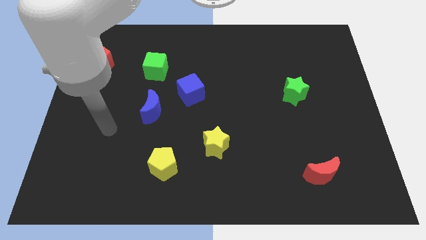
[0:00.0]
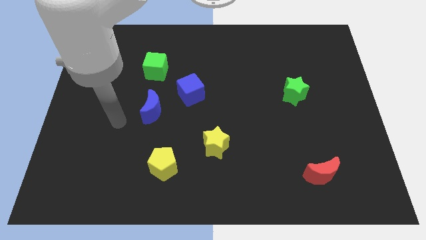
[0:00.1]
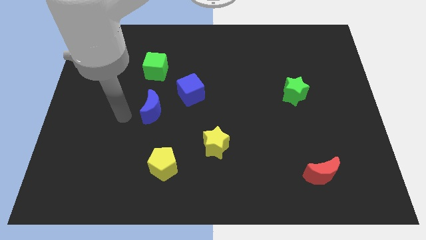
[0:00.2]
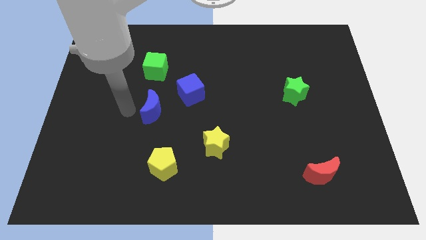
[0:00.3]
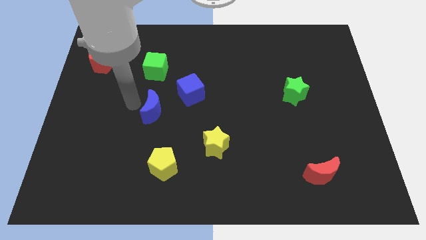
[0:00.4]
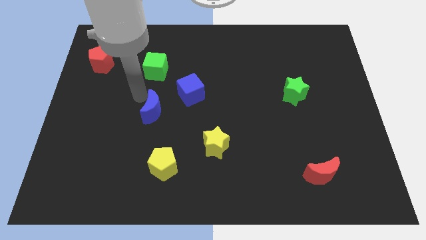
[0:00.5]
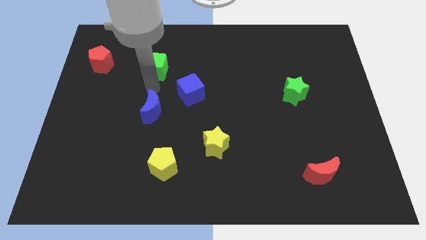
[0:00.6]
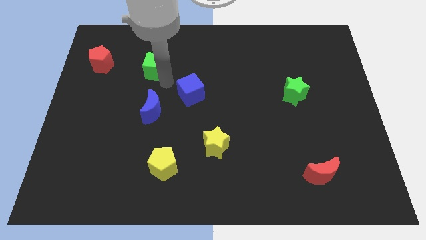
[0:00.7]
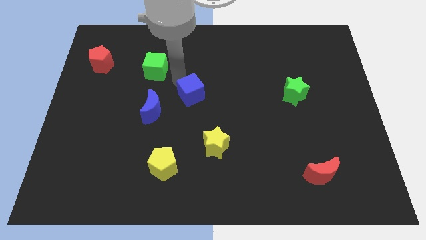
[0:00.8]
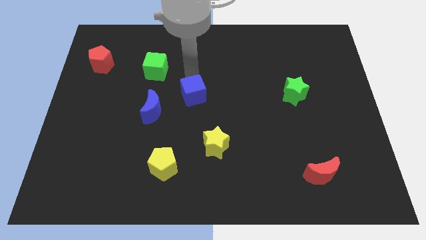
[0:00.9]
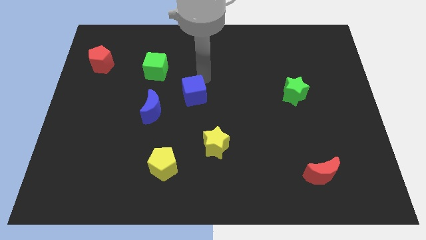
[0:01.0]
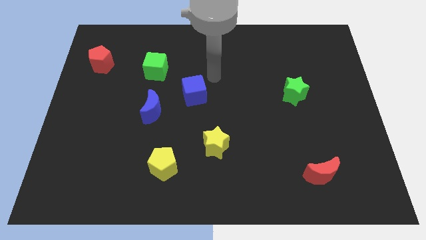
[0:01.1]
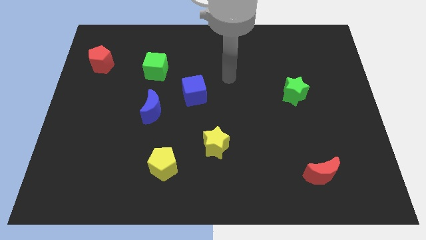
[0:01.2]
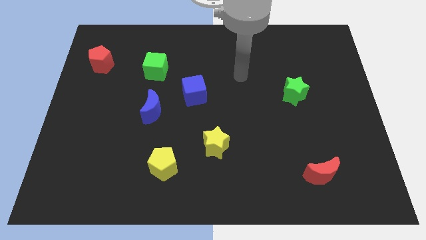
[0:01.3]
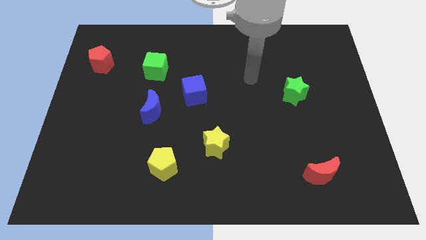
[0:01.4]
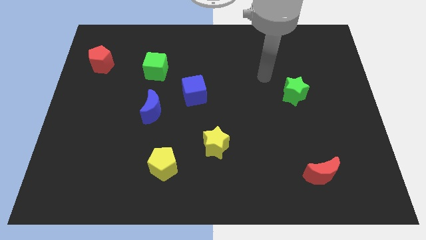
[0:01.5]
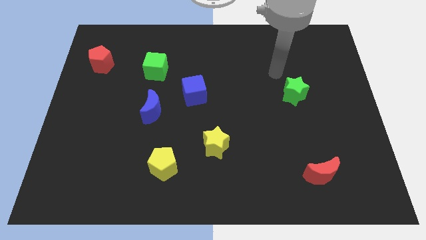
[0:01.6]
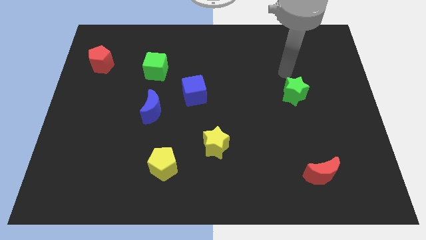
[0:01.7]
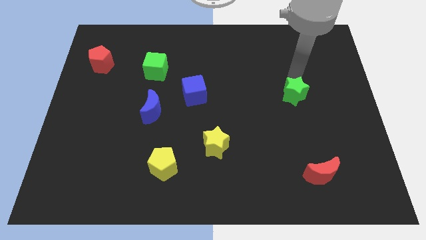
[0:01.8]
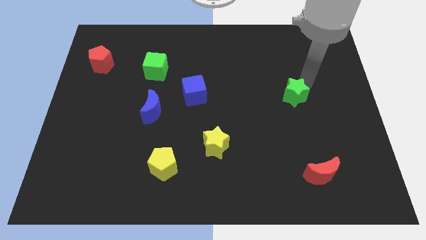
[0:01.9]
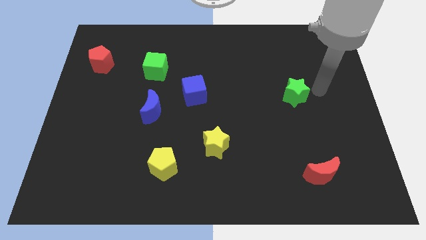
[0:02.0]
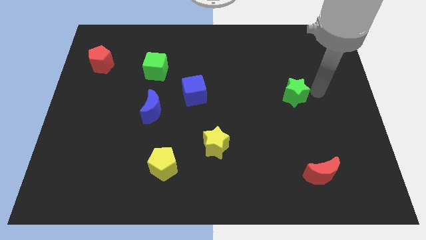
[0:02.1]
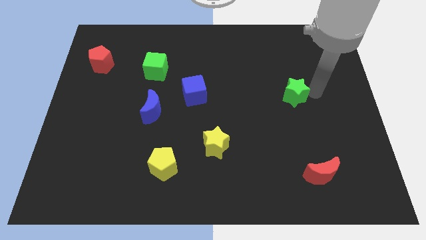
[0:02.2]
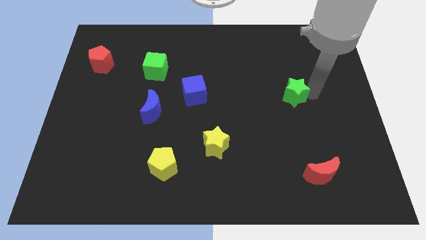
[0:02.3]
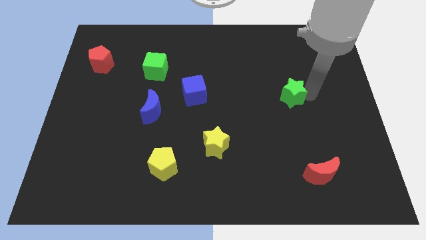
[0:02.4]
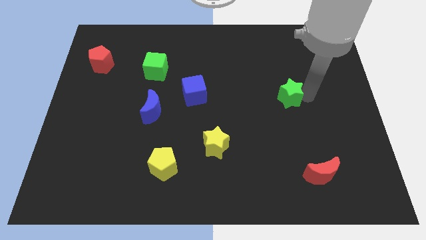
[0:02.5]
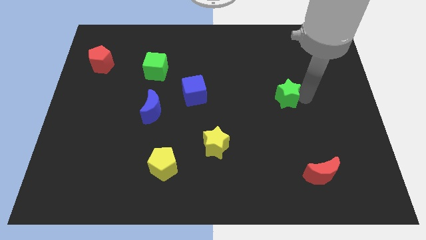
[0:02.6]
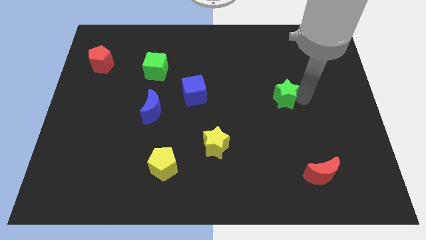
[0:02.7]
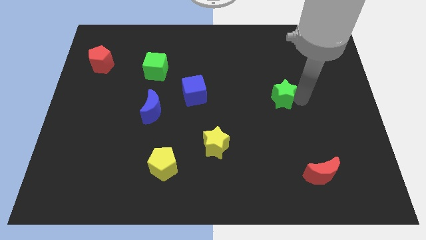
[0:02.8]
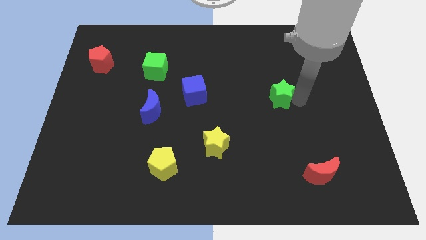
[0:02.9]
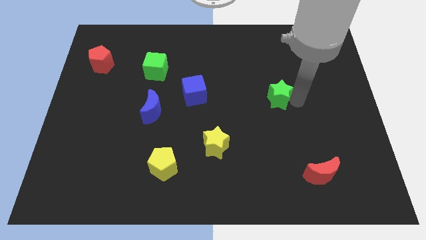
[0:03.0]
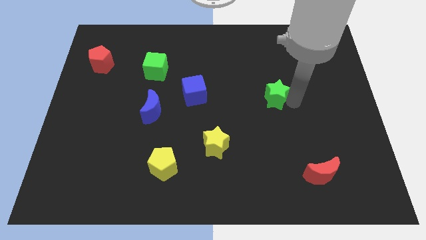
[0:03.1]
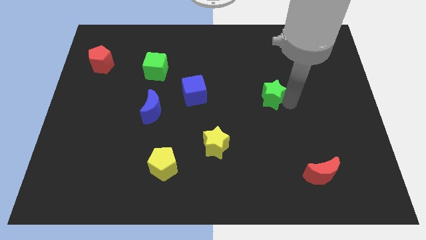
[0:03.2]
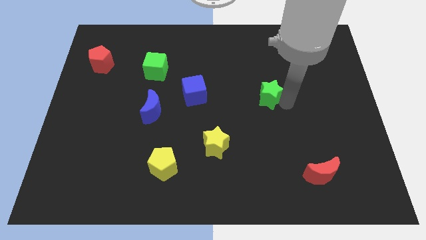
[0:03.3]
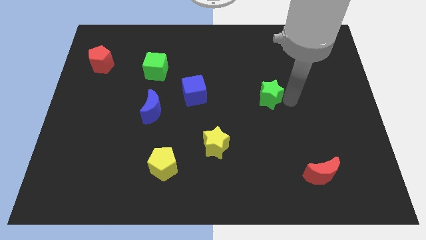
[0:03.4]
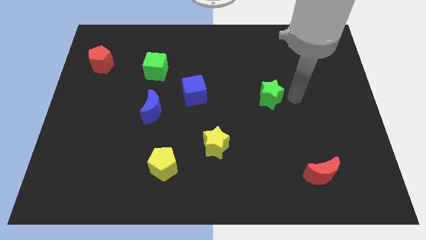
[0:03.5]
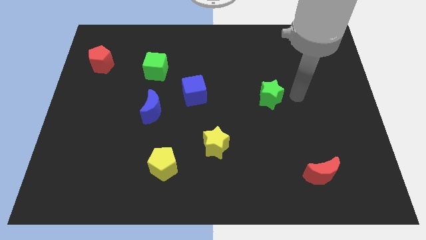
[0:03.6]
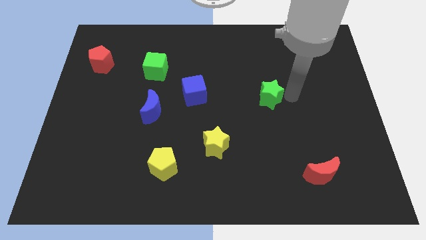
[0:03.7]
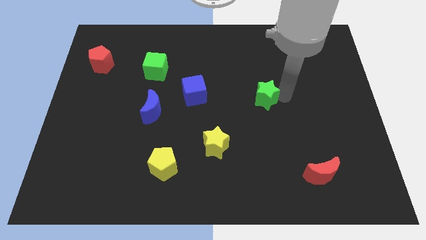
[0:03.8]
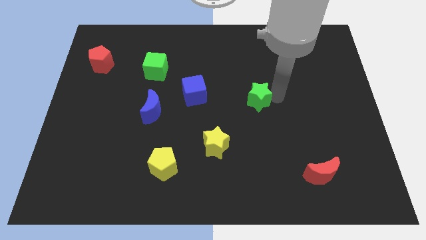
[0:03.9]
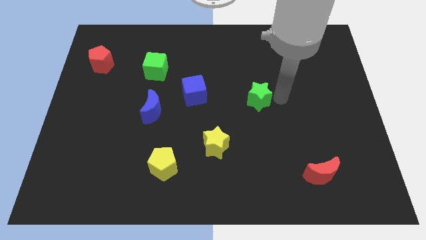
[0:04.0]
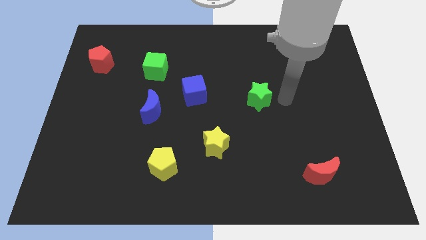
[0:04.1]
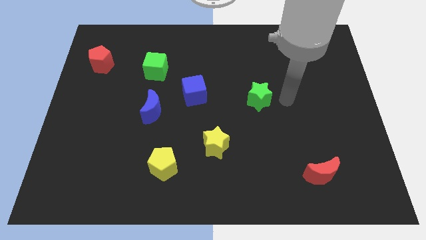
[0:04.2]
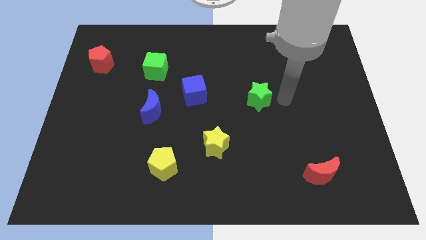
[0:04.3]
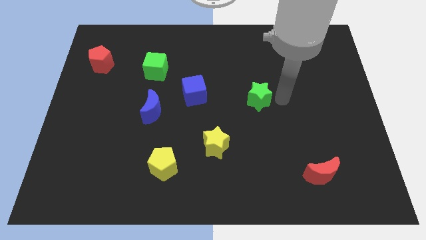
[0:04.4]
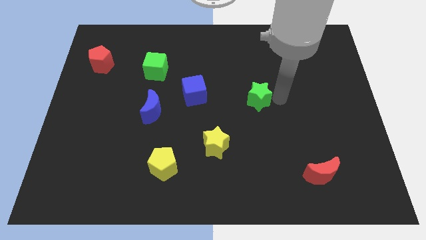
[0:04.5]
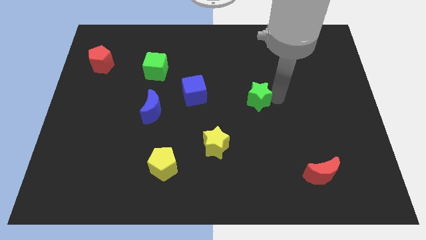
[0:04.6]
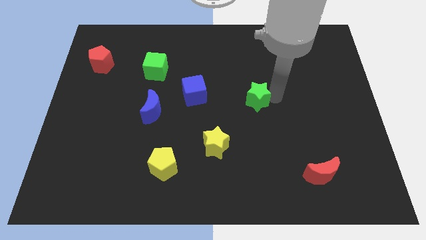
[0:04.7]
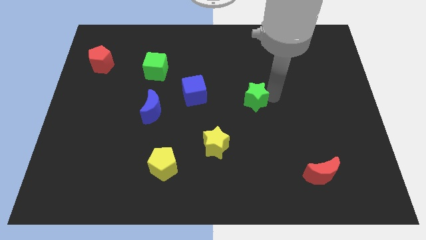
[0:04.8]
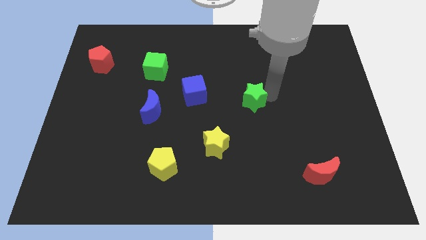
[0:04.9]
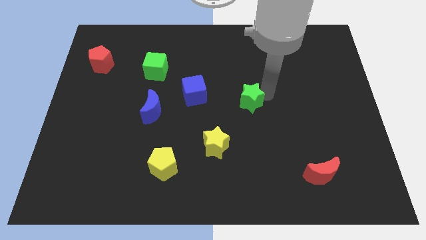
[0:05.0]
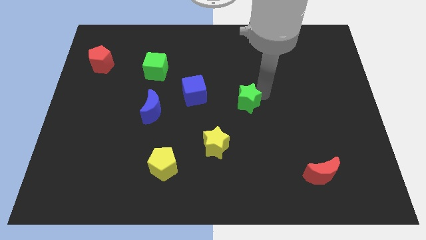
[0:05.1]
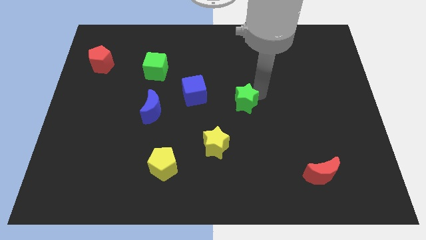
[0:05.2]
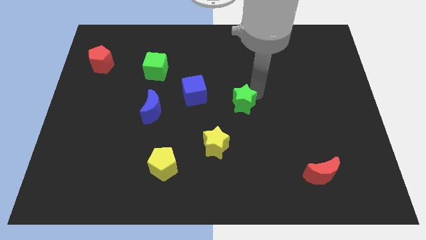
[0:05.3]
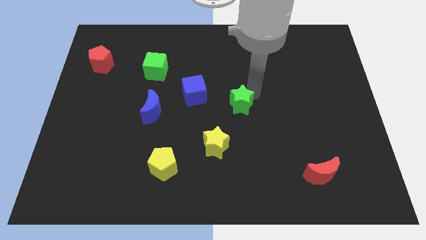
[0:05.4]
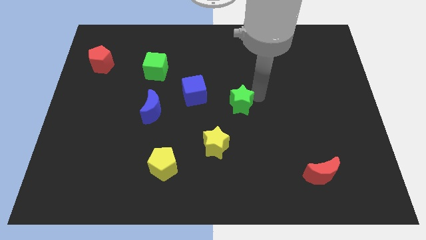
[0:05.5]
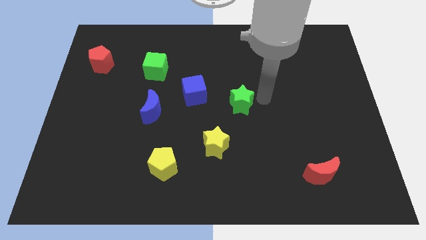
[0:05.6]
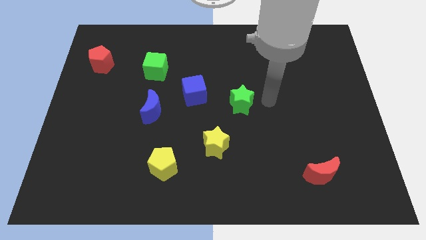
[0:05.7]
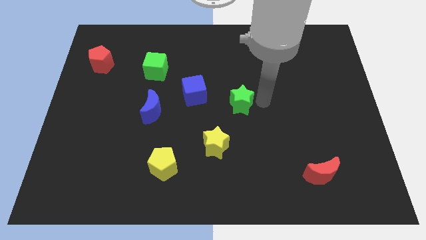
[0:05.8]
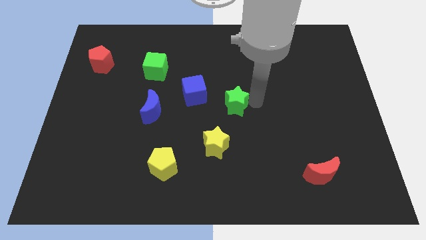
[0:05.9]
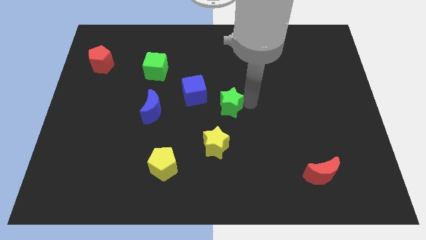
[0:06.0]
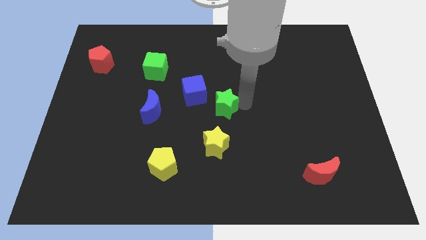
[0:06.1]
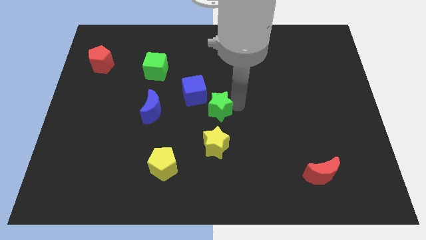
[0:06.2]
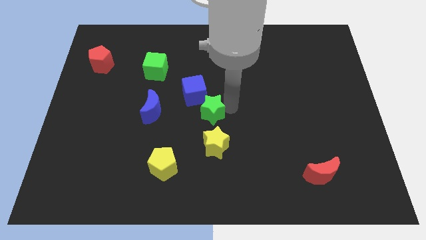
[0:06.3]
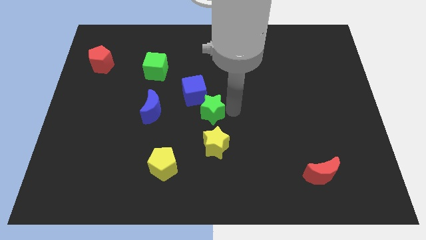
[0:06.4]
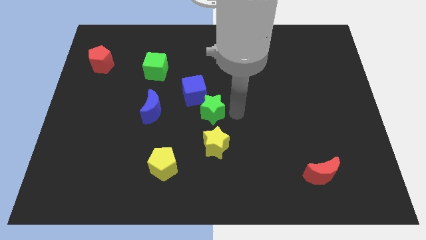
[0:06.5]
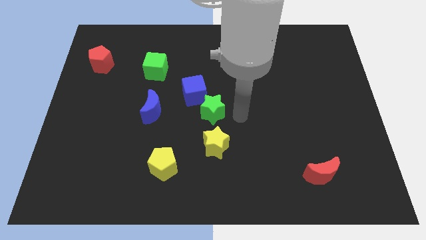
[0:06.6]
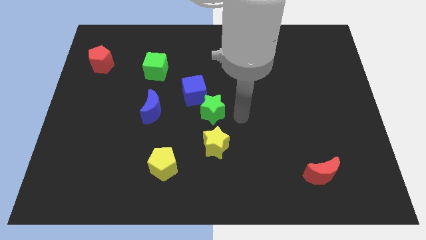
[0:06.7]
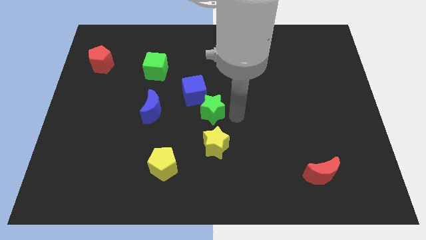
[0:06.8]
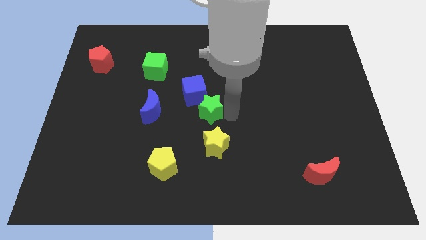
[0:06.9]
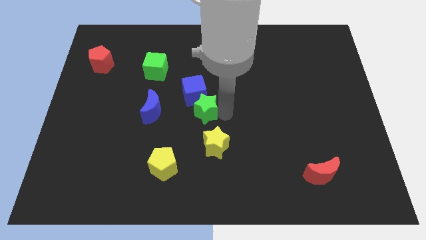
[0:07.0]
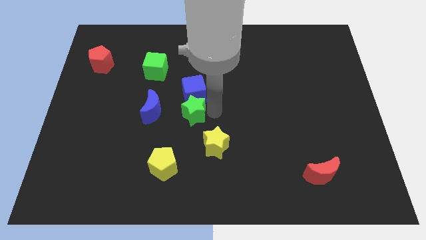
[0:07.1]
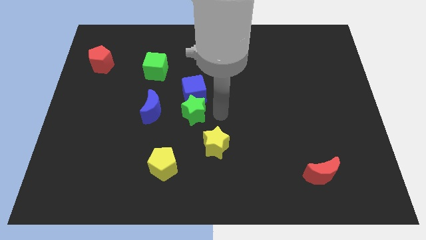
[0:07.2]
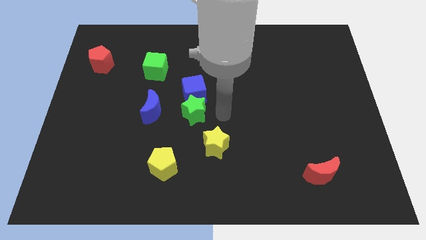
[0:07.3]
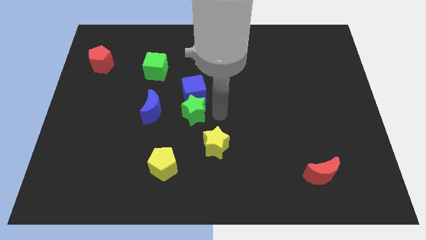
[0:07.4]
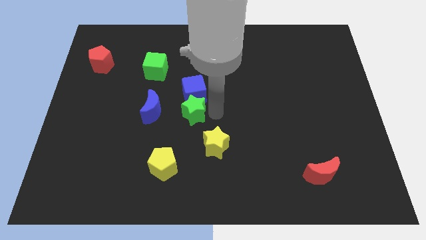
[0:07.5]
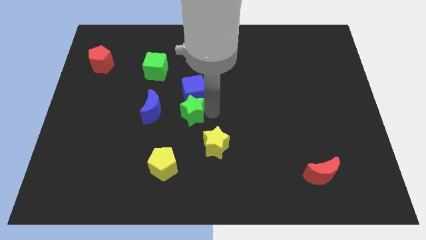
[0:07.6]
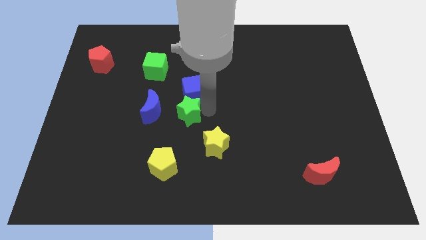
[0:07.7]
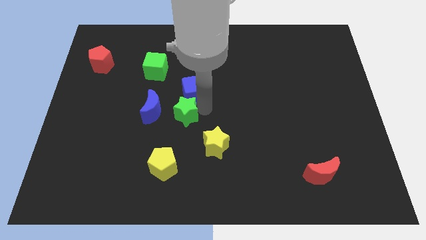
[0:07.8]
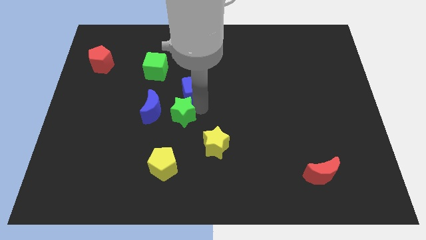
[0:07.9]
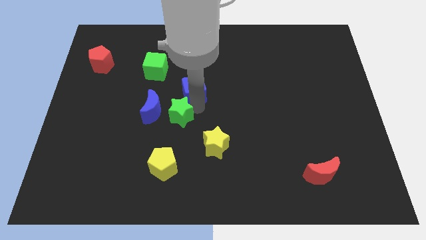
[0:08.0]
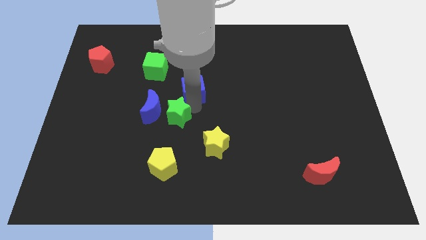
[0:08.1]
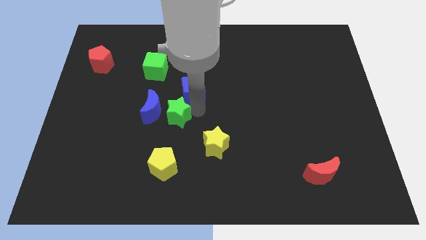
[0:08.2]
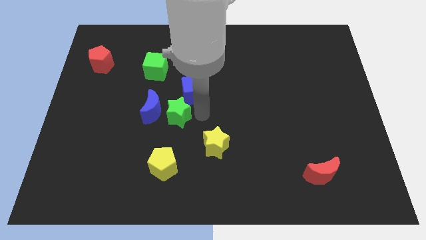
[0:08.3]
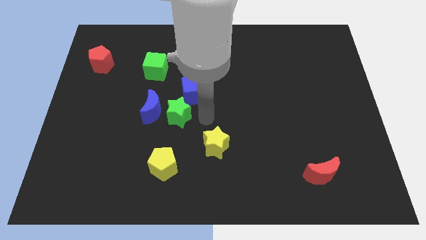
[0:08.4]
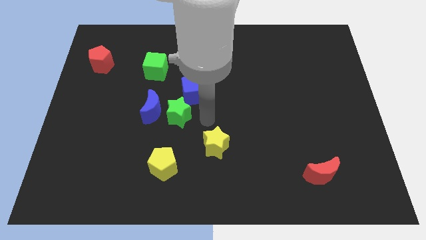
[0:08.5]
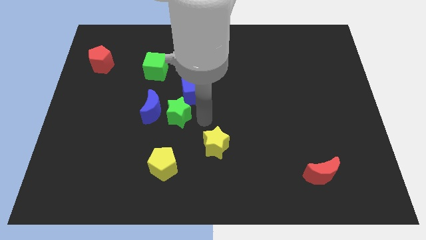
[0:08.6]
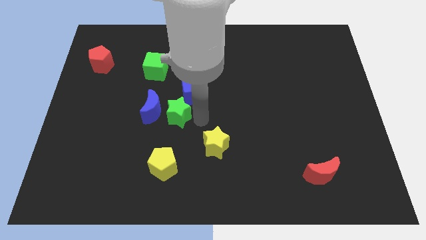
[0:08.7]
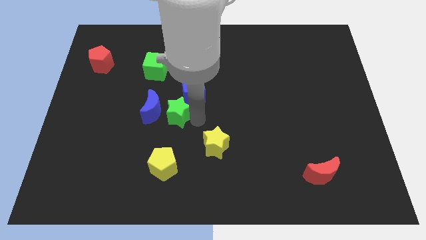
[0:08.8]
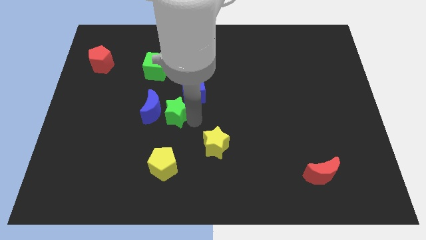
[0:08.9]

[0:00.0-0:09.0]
put the green star towards the blue moon
